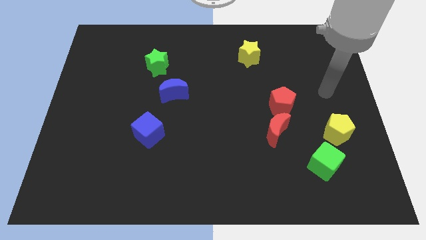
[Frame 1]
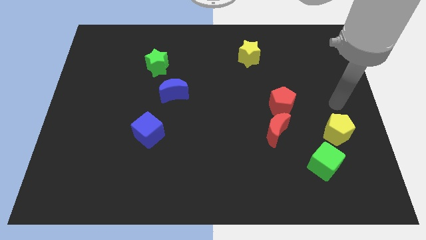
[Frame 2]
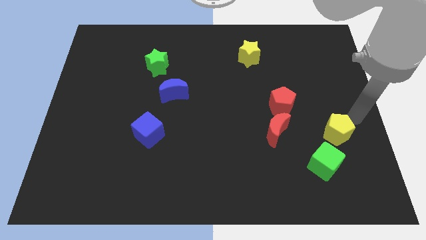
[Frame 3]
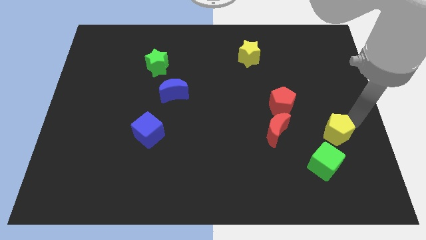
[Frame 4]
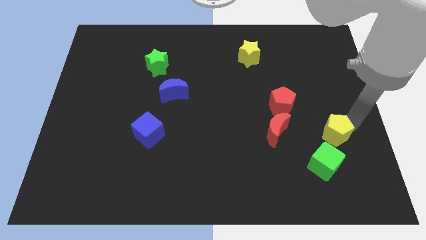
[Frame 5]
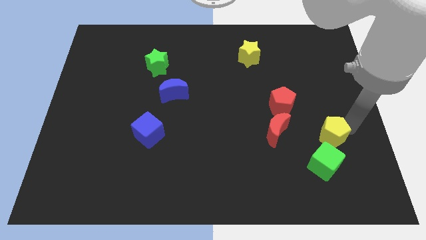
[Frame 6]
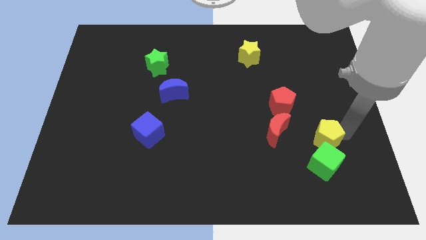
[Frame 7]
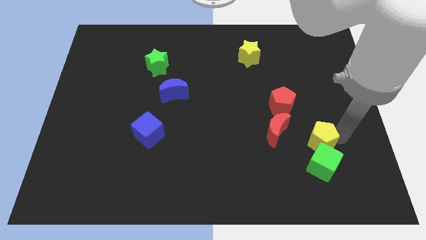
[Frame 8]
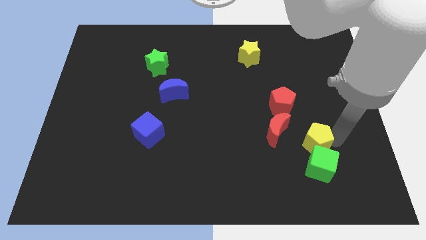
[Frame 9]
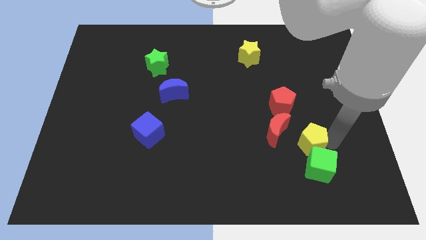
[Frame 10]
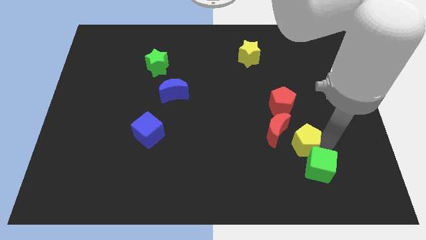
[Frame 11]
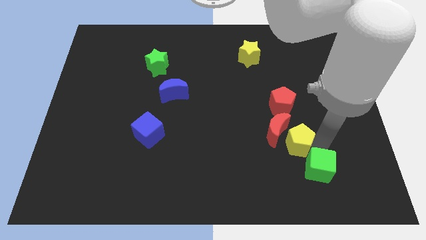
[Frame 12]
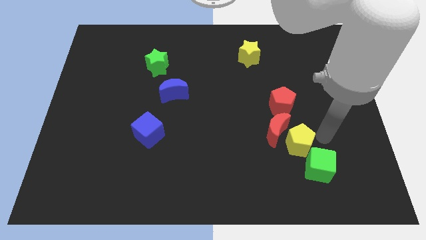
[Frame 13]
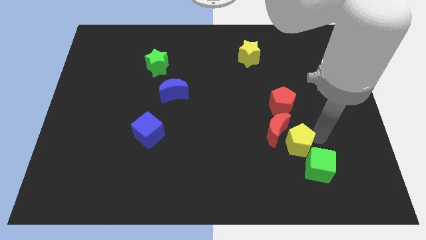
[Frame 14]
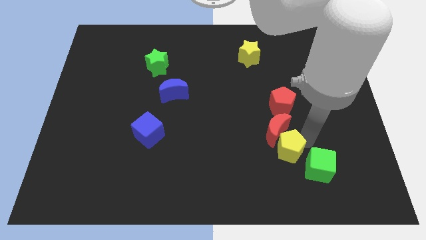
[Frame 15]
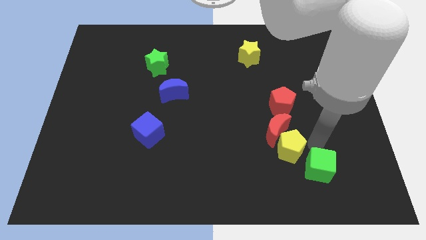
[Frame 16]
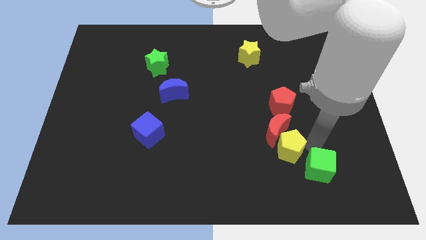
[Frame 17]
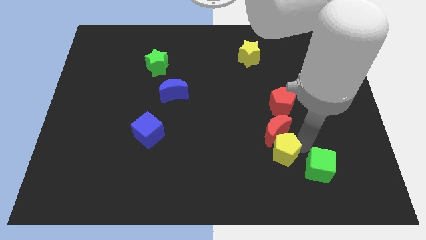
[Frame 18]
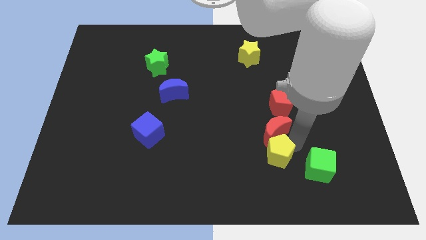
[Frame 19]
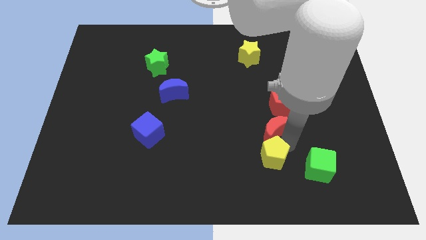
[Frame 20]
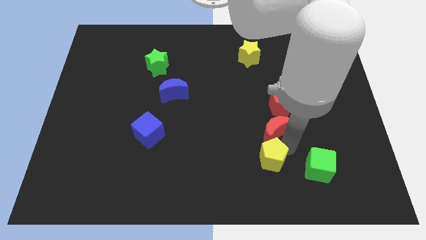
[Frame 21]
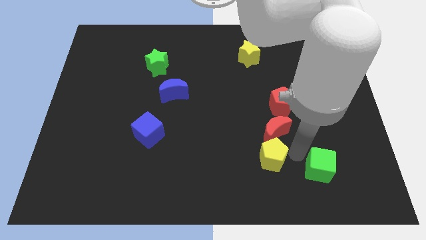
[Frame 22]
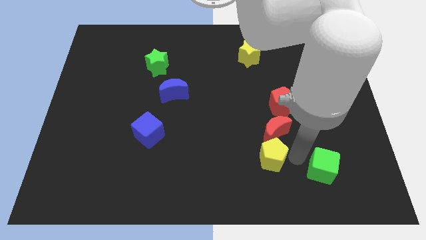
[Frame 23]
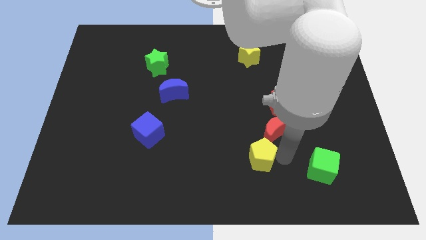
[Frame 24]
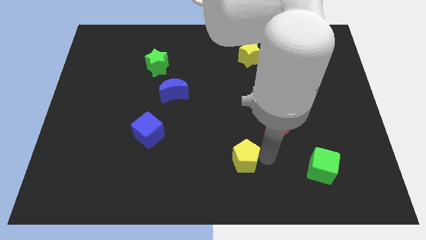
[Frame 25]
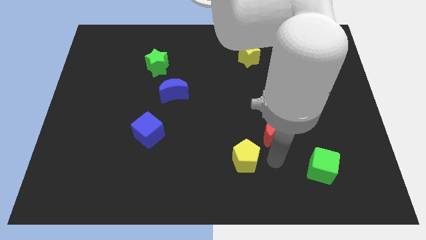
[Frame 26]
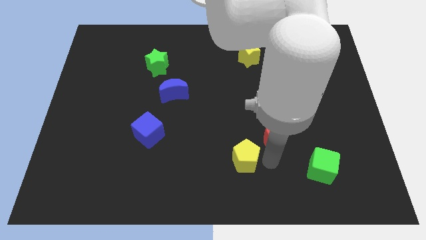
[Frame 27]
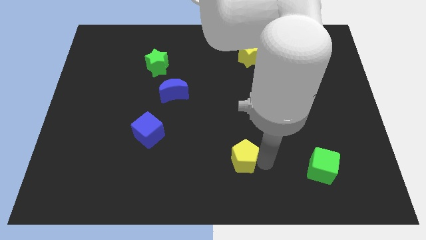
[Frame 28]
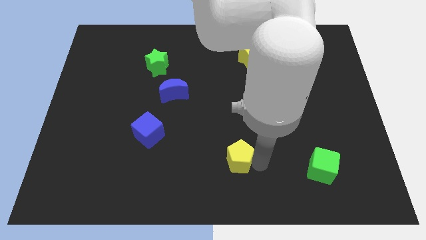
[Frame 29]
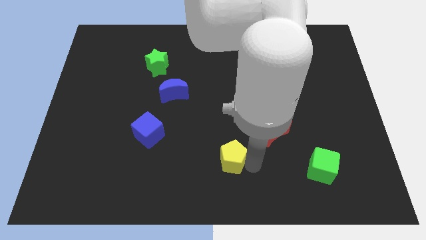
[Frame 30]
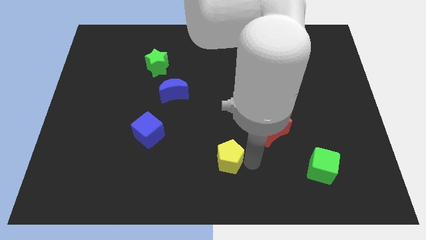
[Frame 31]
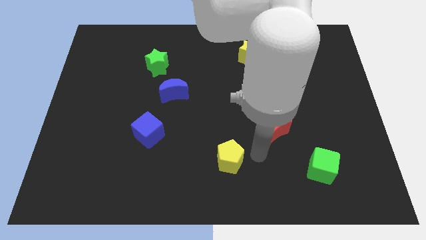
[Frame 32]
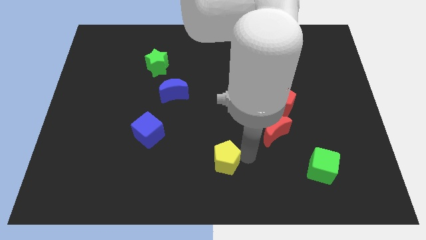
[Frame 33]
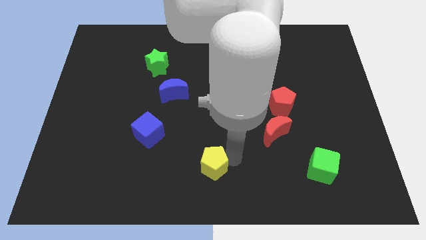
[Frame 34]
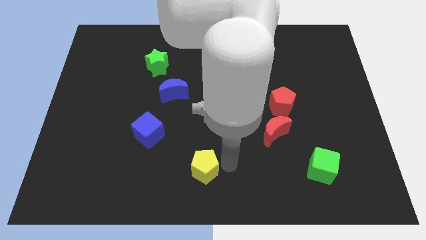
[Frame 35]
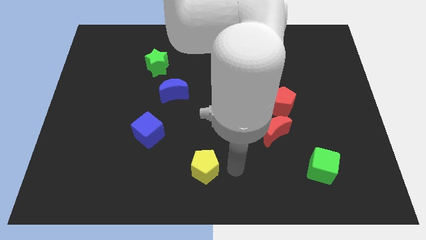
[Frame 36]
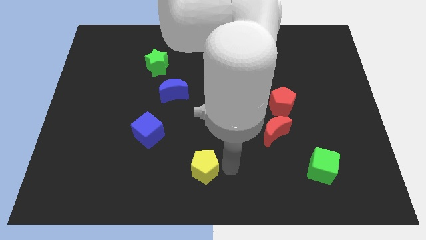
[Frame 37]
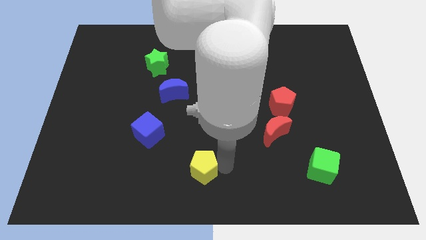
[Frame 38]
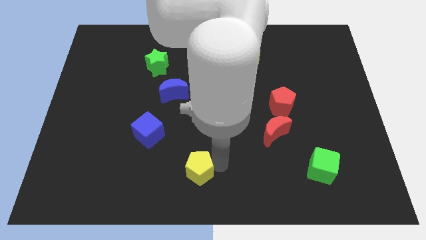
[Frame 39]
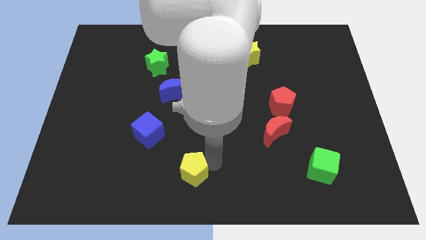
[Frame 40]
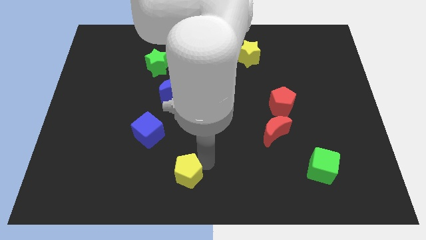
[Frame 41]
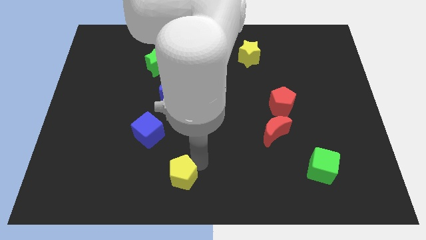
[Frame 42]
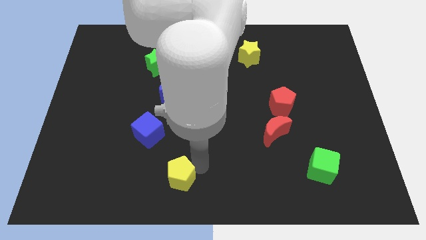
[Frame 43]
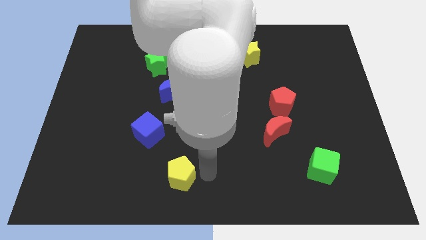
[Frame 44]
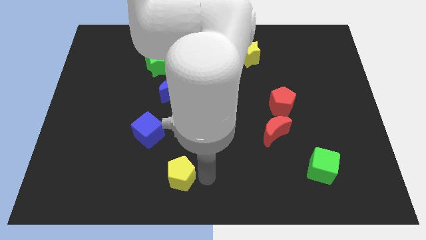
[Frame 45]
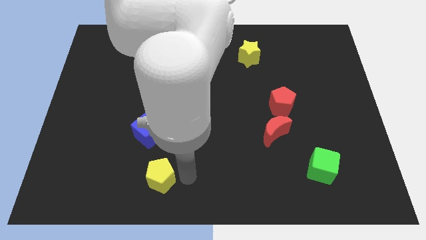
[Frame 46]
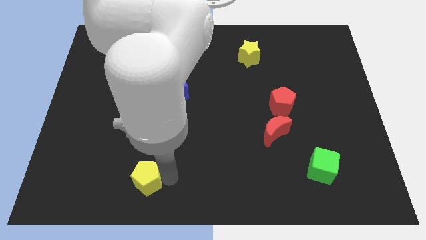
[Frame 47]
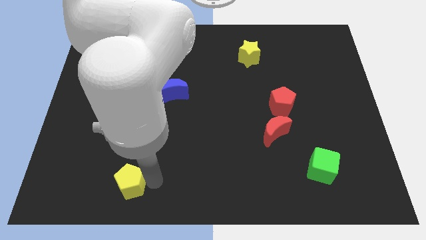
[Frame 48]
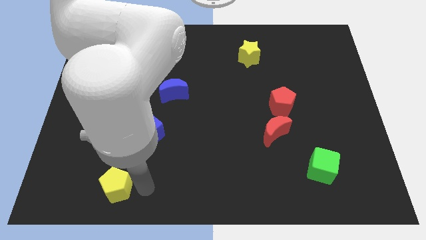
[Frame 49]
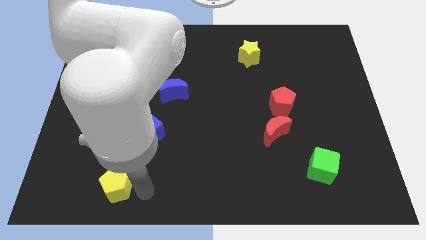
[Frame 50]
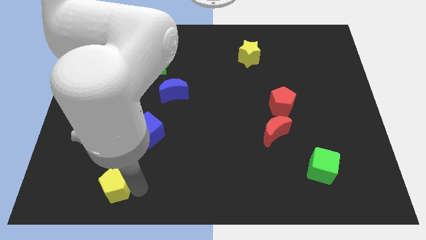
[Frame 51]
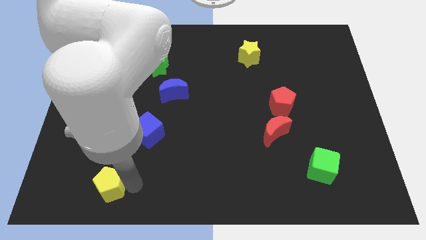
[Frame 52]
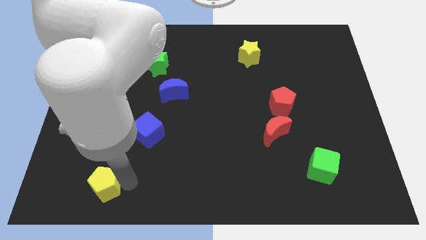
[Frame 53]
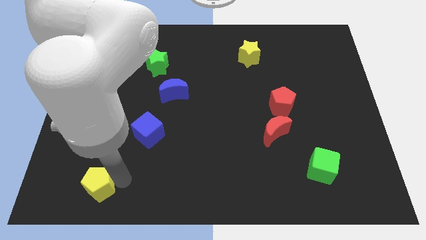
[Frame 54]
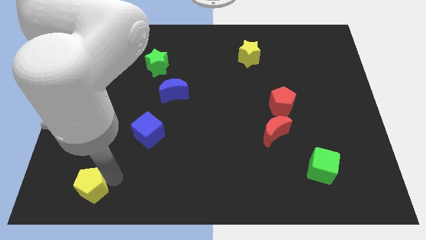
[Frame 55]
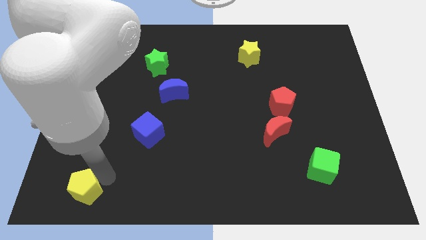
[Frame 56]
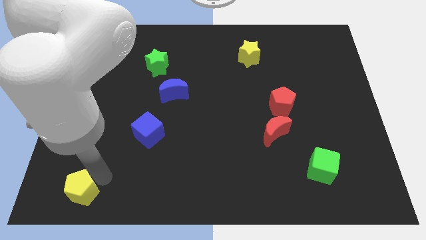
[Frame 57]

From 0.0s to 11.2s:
move the yellow pentagon to the bottom left

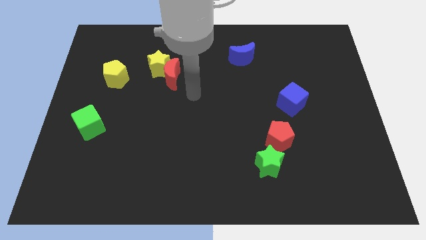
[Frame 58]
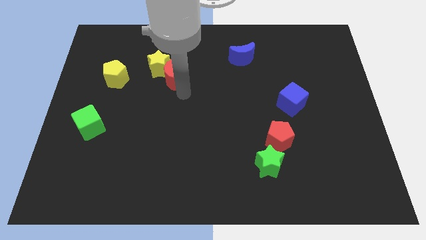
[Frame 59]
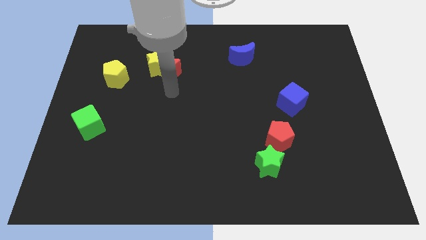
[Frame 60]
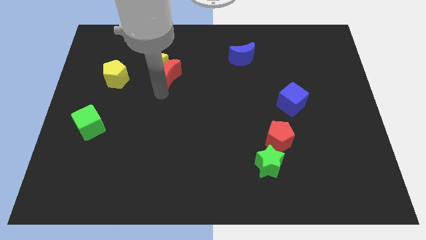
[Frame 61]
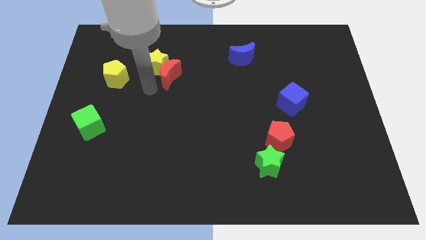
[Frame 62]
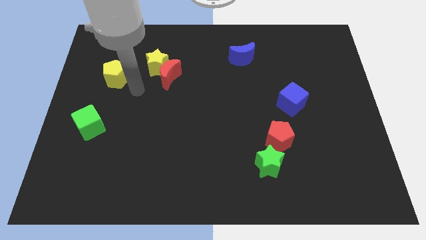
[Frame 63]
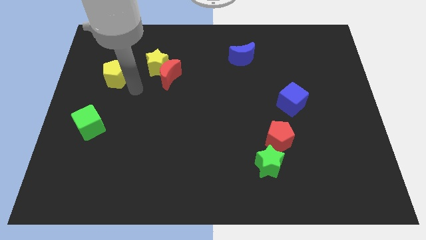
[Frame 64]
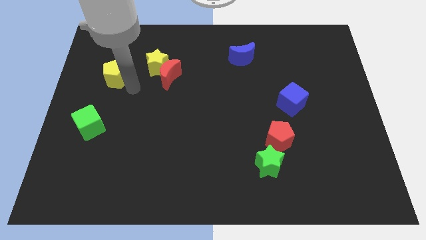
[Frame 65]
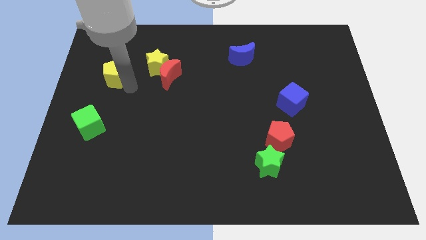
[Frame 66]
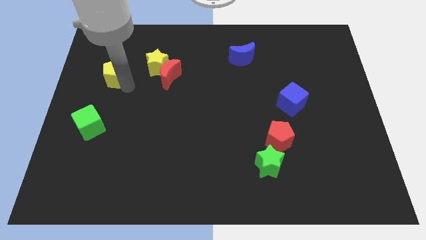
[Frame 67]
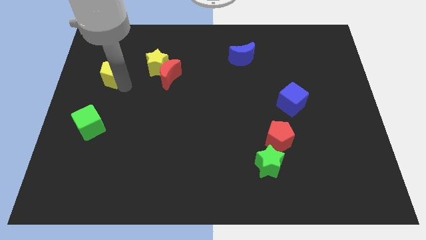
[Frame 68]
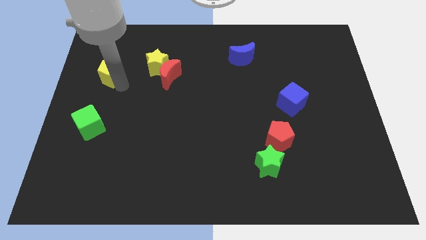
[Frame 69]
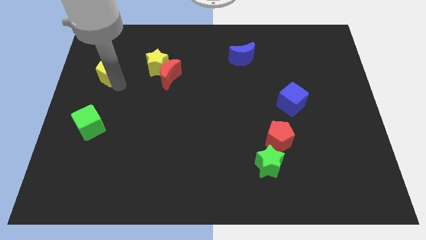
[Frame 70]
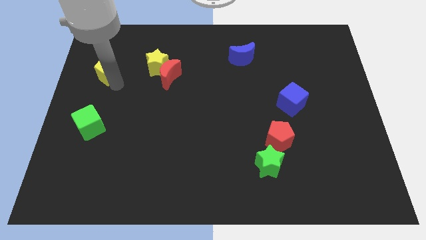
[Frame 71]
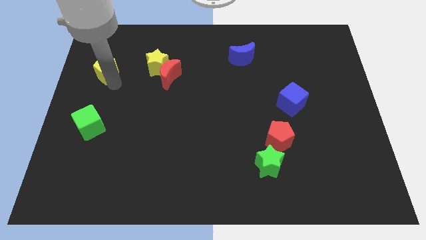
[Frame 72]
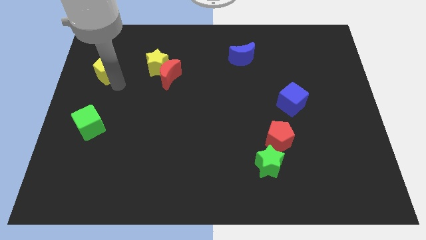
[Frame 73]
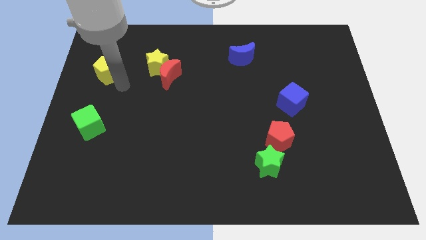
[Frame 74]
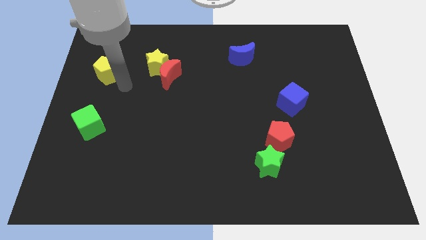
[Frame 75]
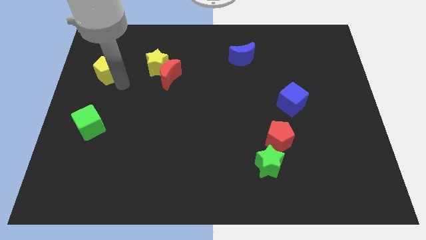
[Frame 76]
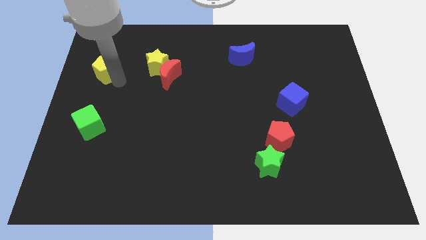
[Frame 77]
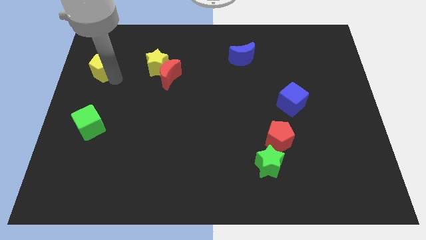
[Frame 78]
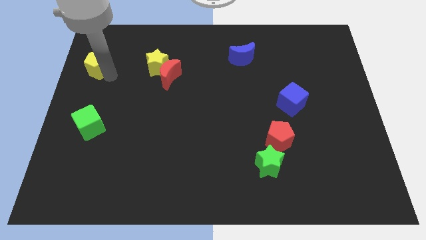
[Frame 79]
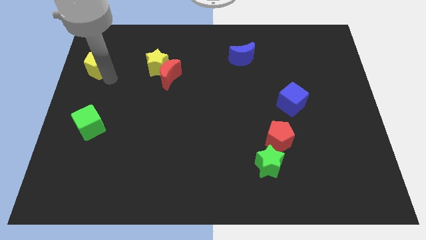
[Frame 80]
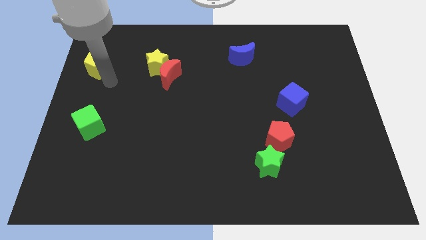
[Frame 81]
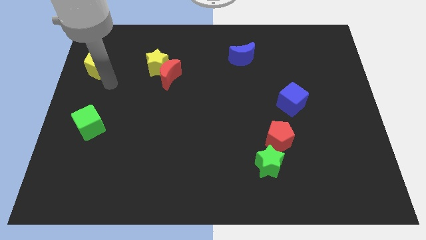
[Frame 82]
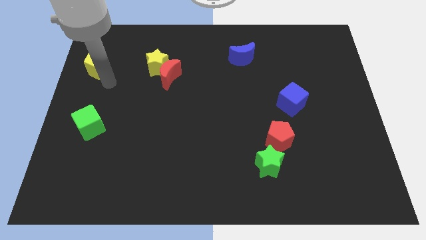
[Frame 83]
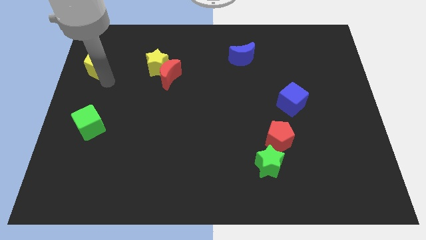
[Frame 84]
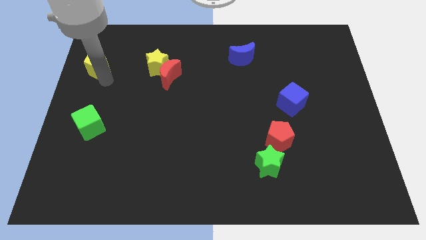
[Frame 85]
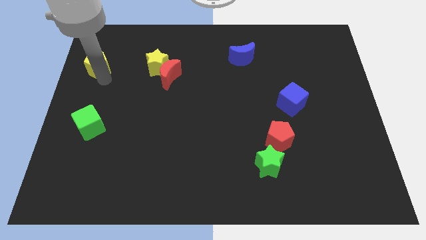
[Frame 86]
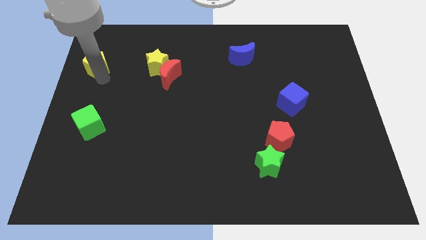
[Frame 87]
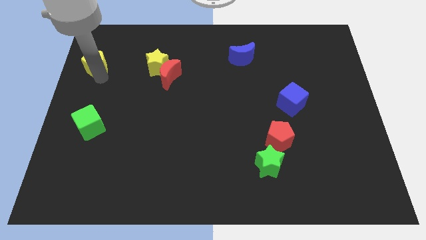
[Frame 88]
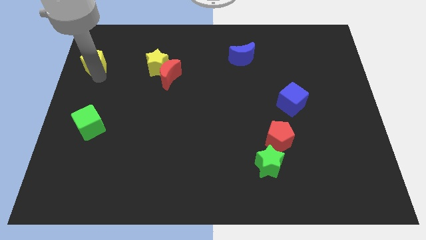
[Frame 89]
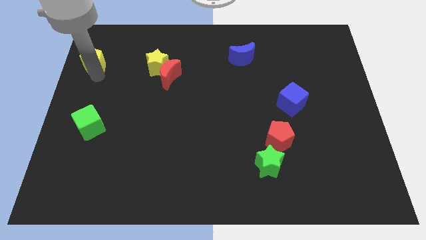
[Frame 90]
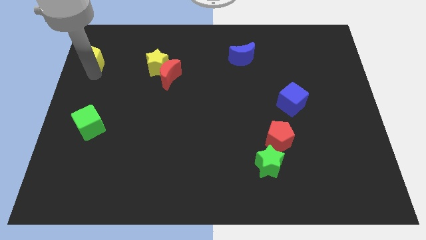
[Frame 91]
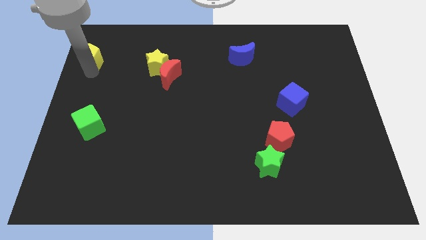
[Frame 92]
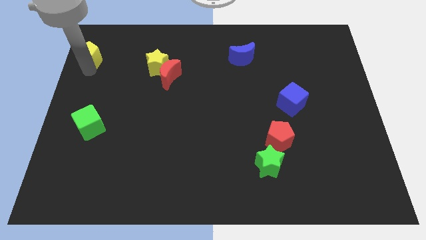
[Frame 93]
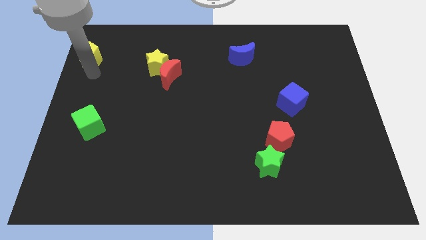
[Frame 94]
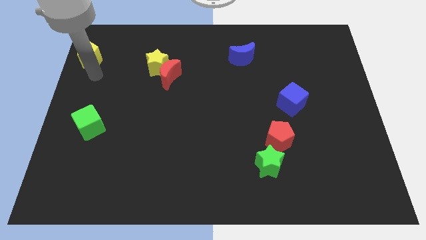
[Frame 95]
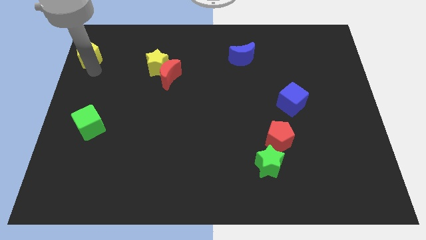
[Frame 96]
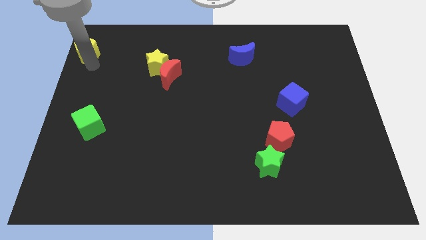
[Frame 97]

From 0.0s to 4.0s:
push the yellow pentagon to the top left of the board
